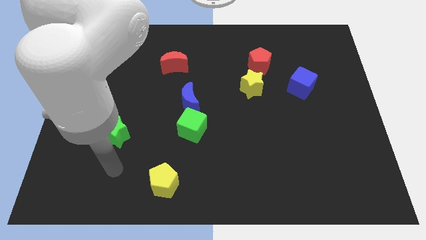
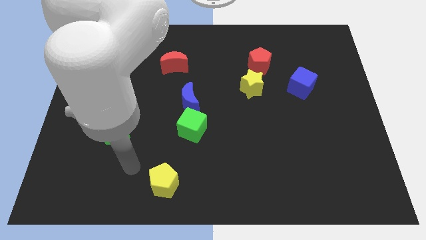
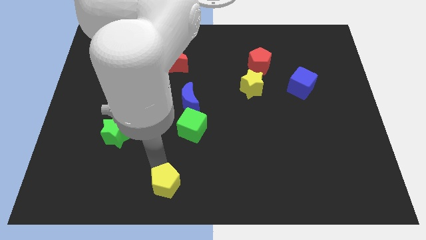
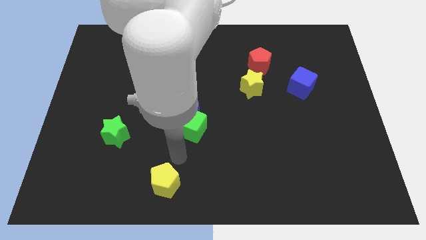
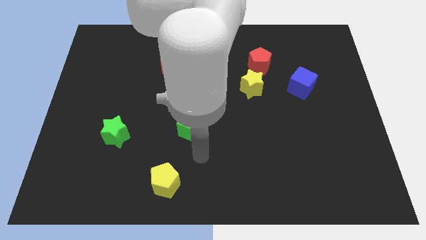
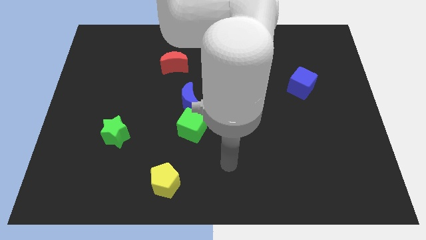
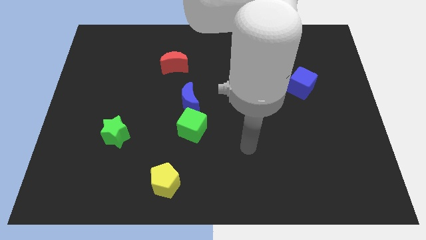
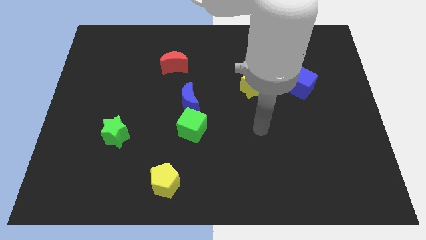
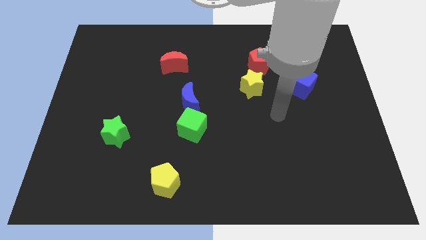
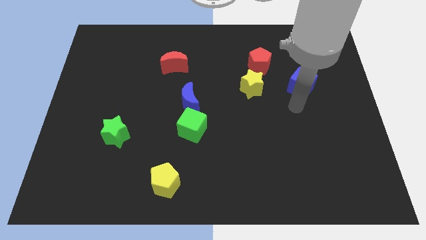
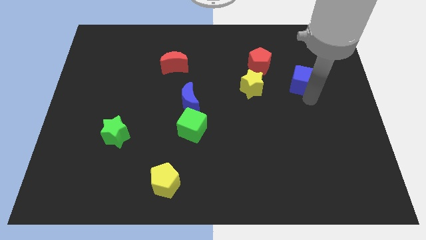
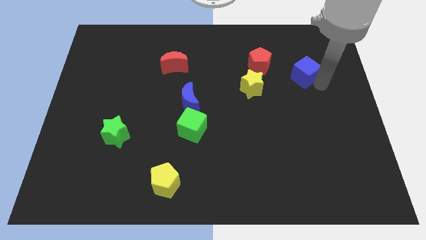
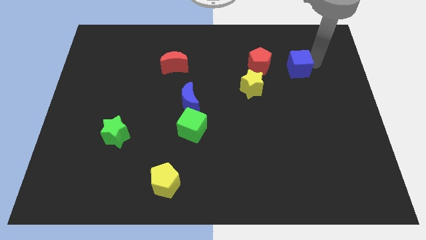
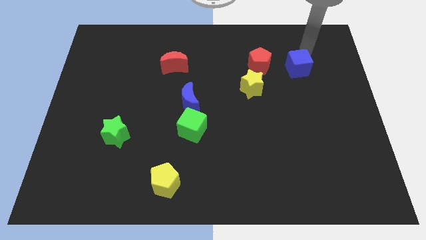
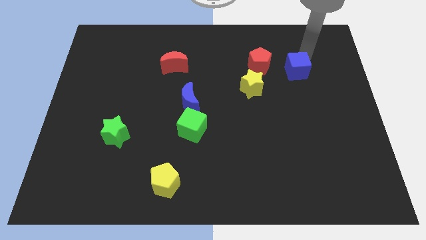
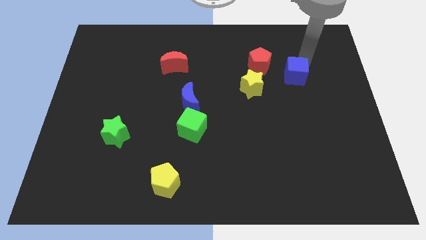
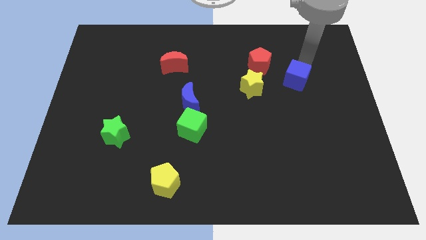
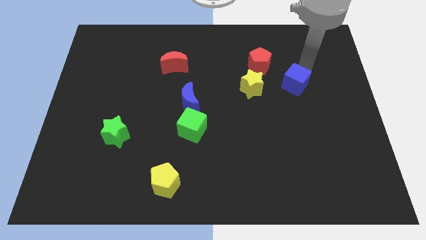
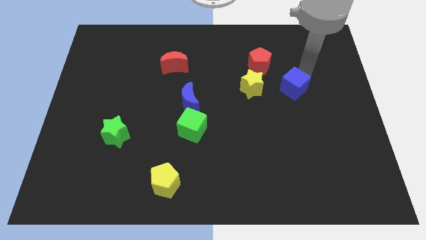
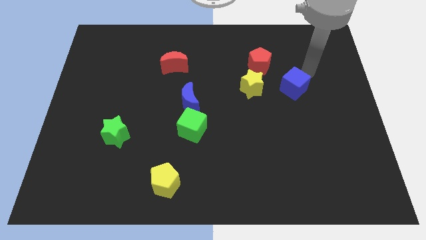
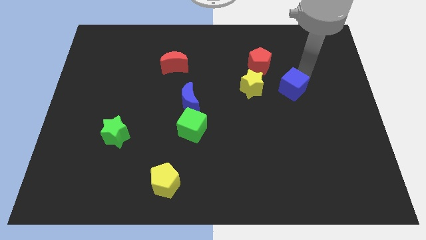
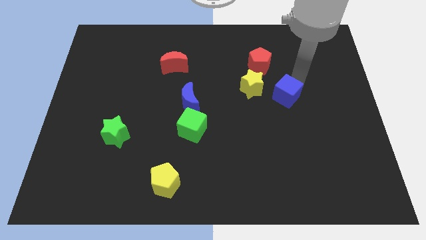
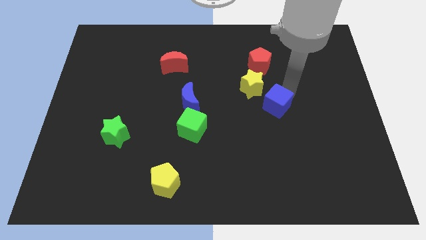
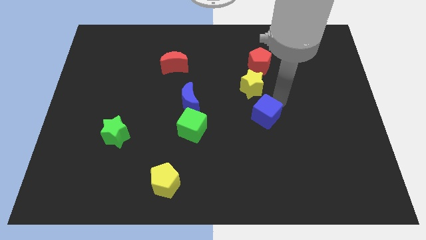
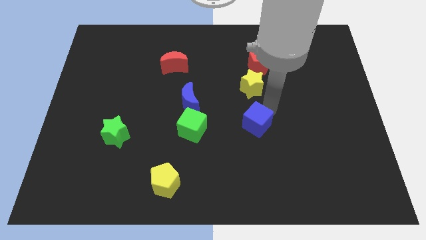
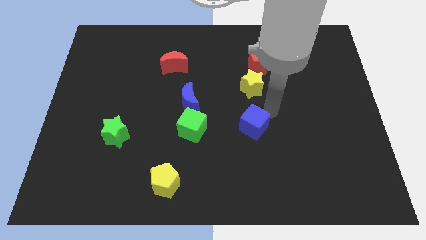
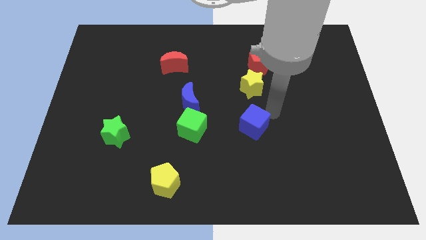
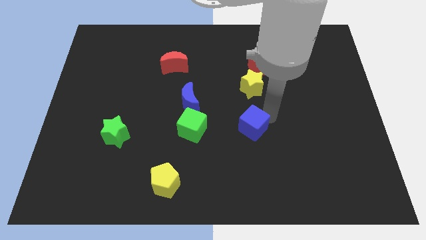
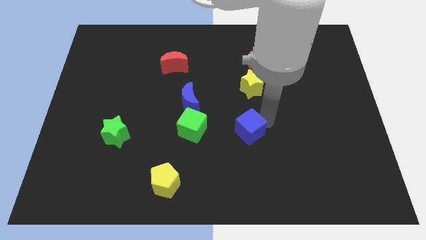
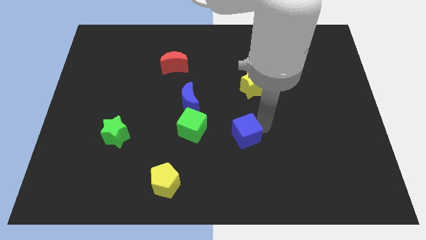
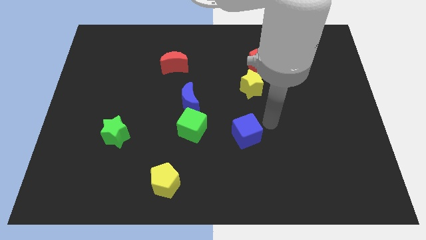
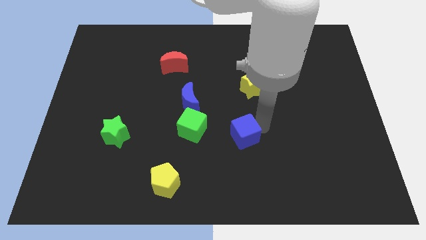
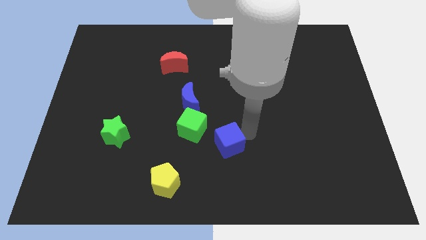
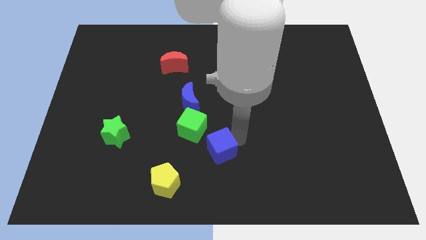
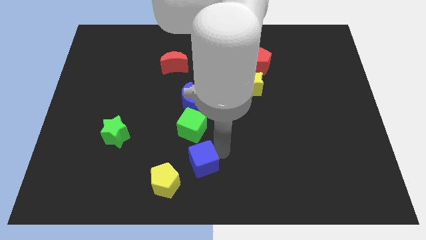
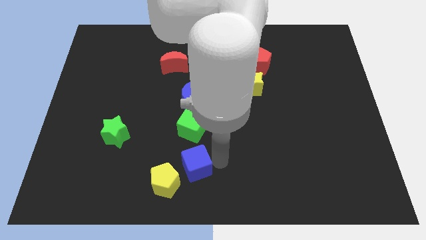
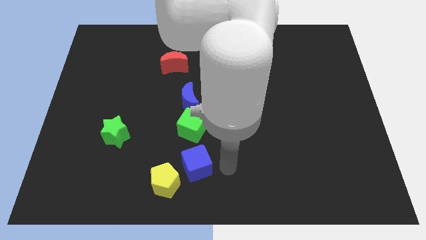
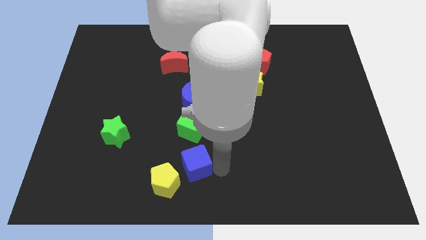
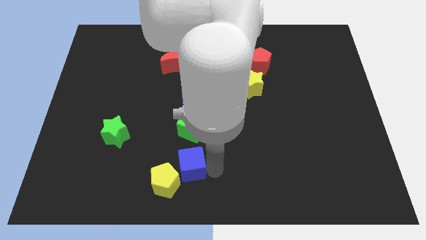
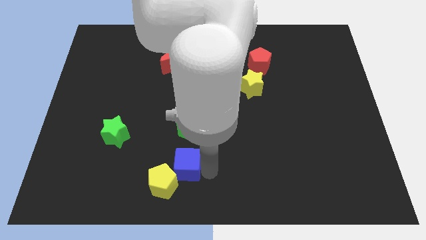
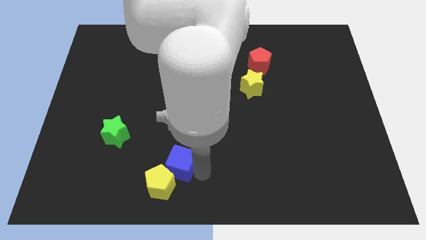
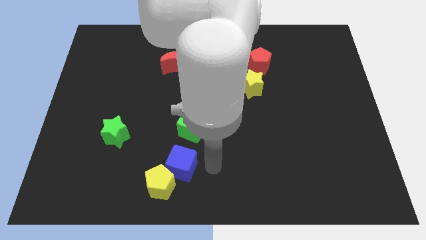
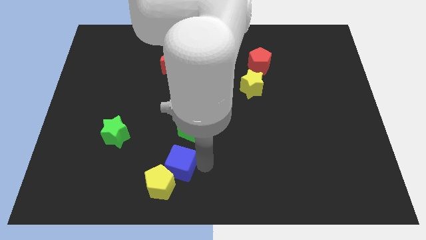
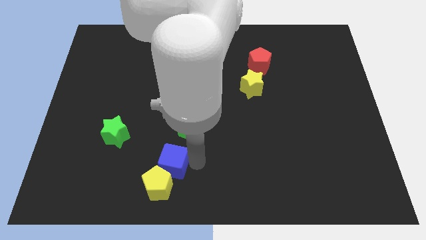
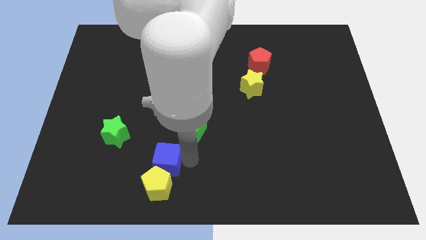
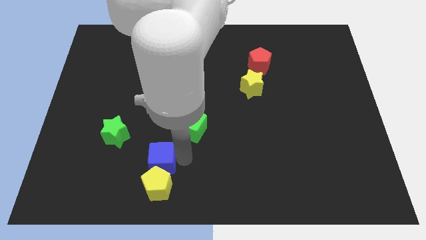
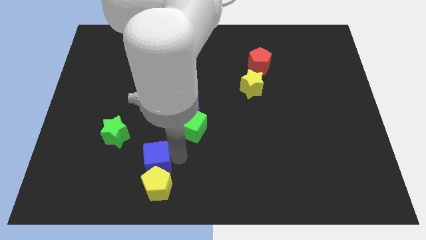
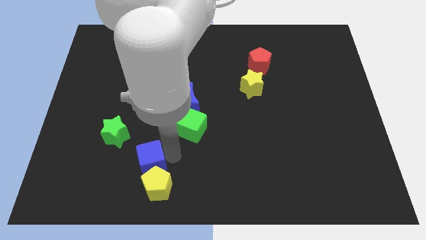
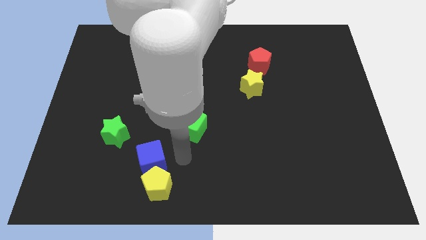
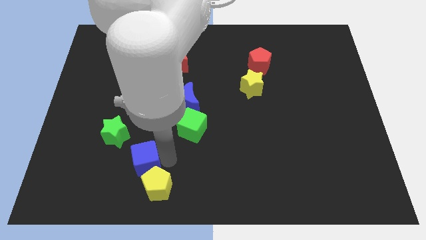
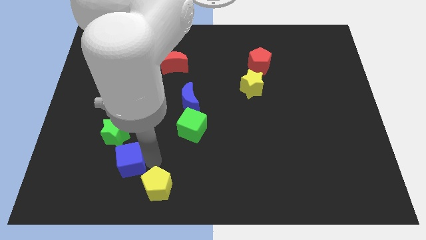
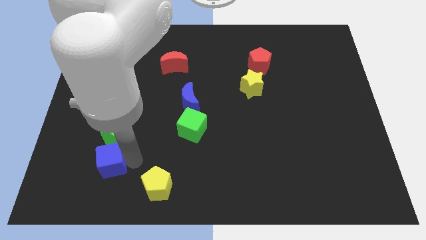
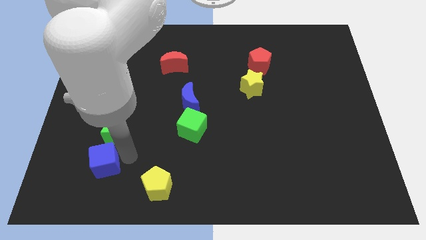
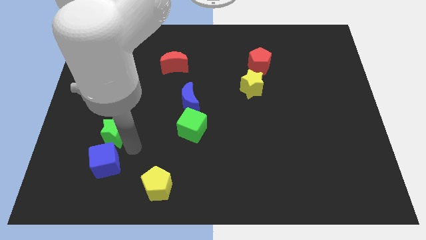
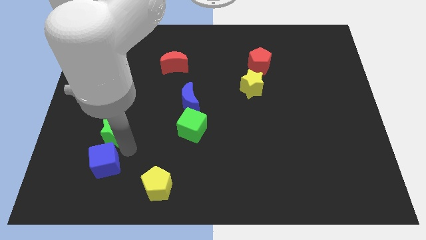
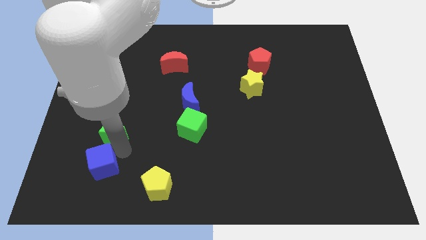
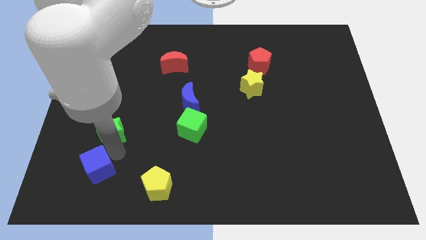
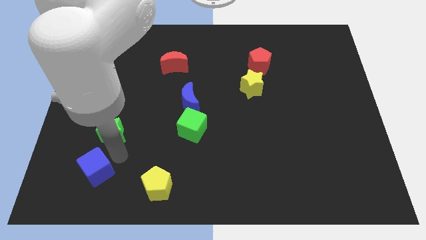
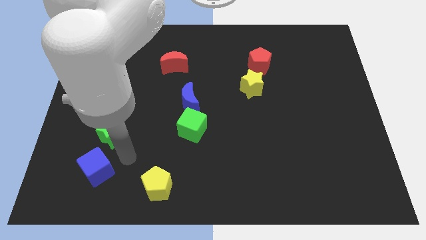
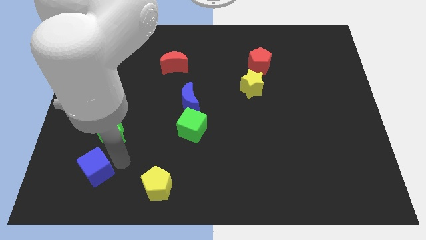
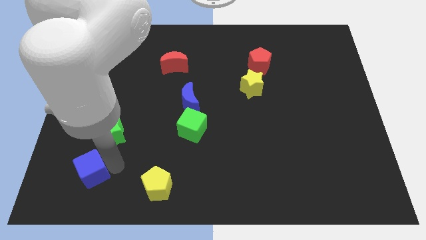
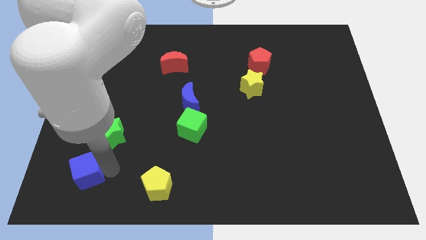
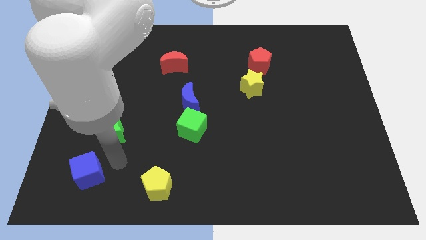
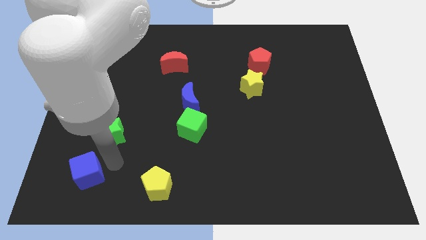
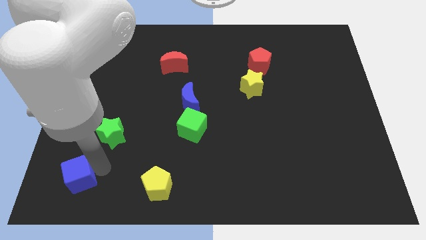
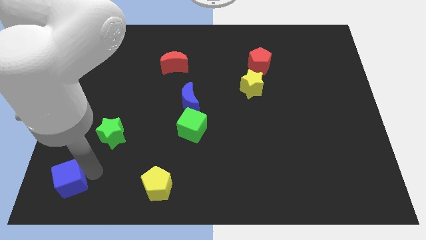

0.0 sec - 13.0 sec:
slide the blue cube to the bottom left
